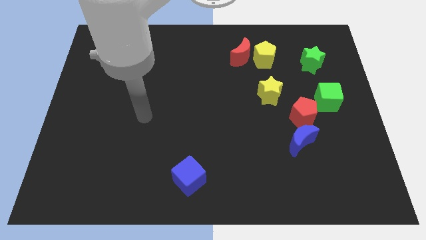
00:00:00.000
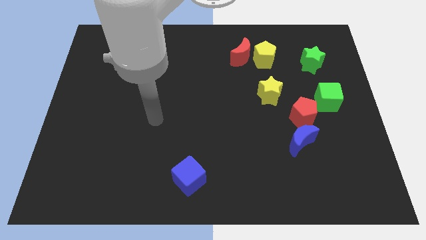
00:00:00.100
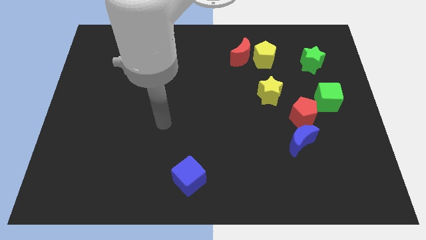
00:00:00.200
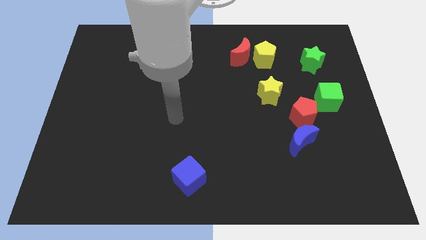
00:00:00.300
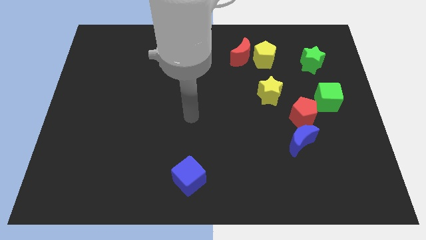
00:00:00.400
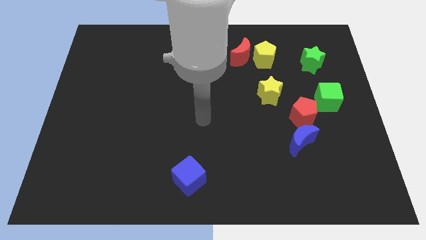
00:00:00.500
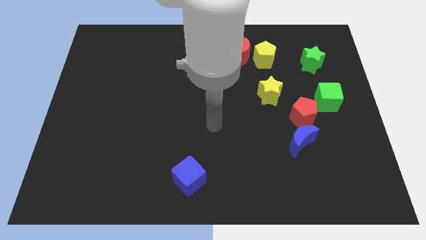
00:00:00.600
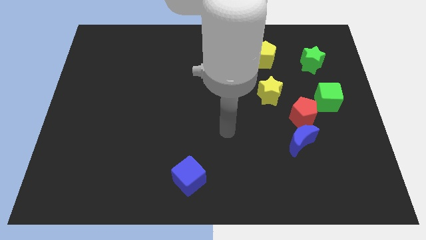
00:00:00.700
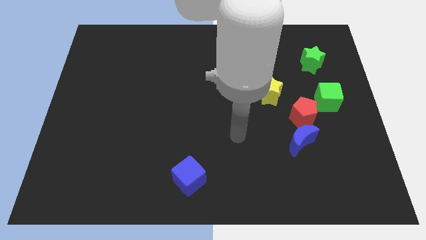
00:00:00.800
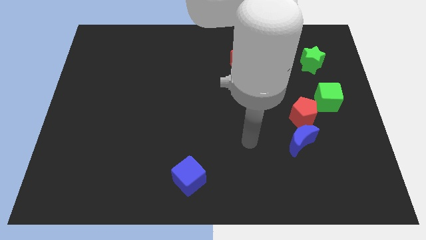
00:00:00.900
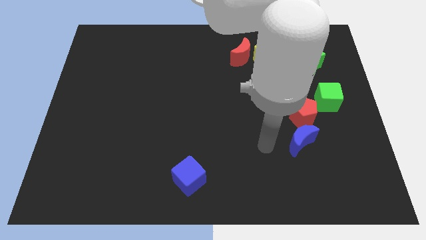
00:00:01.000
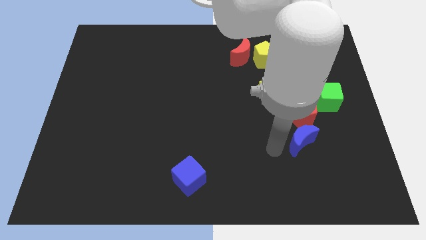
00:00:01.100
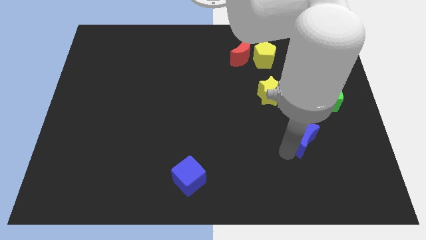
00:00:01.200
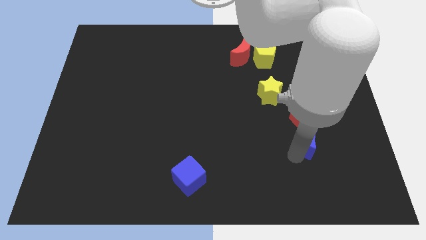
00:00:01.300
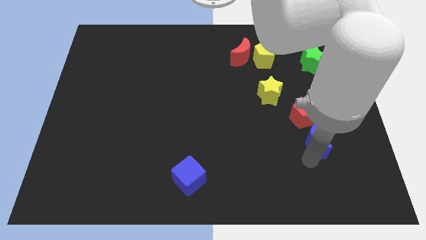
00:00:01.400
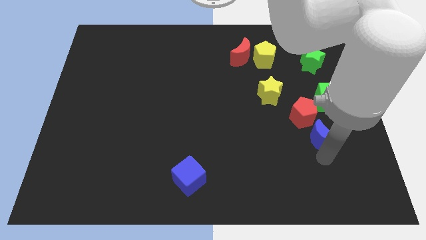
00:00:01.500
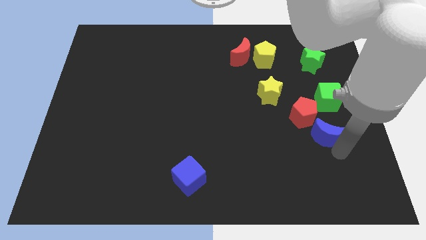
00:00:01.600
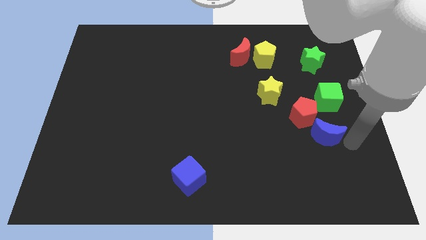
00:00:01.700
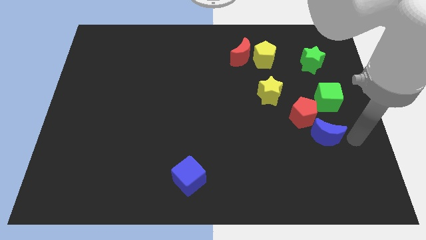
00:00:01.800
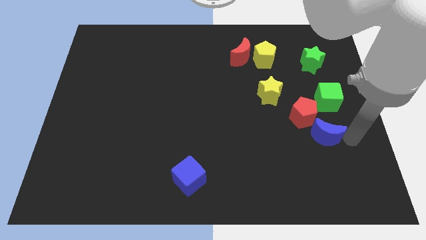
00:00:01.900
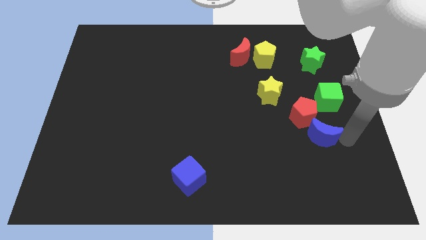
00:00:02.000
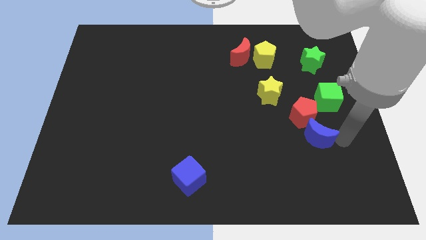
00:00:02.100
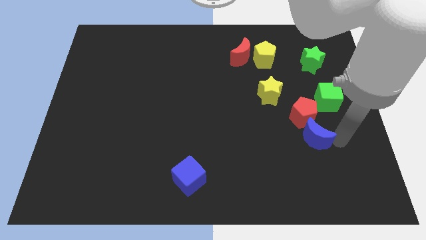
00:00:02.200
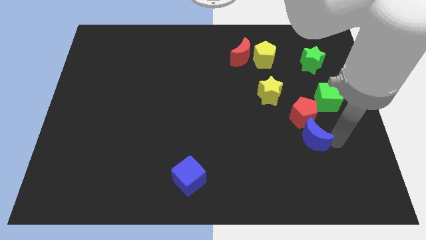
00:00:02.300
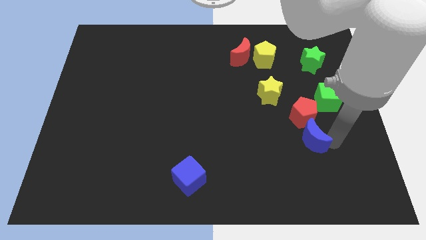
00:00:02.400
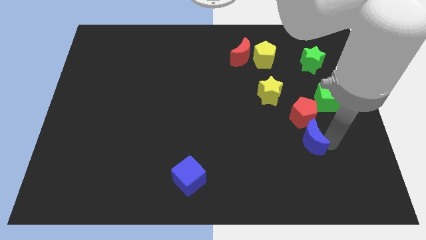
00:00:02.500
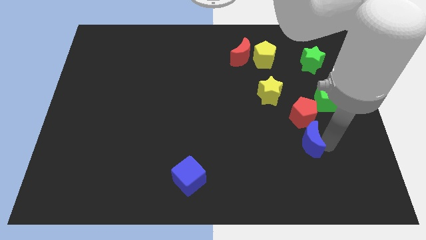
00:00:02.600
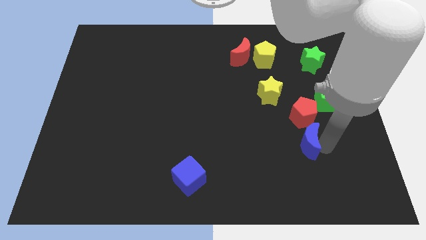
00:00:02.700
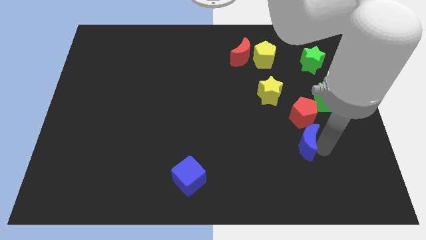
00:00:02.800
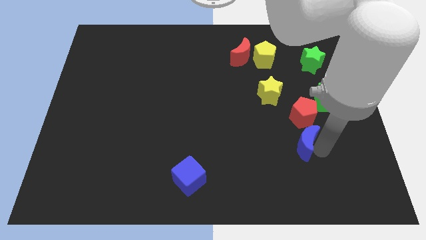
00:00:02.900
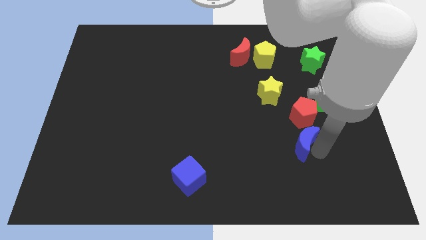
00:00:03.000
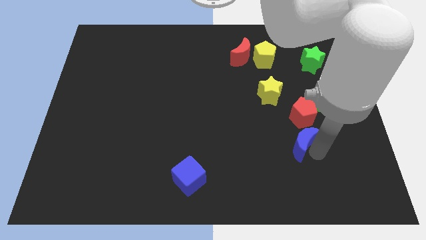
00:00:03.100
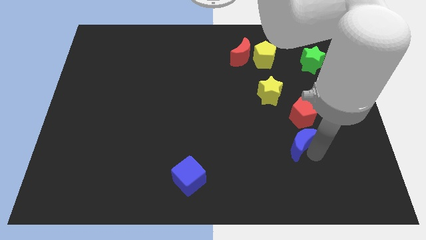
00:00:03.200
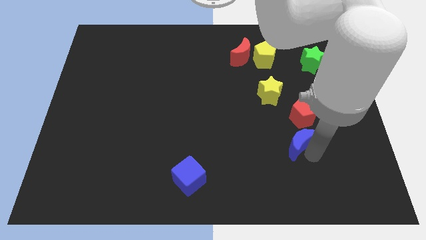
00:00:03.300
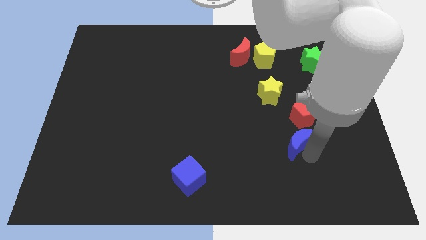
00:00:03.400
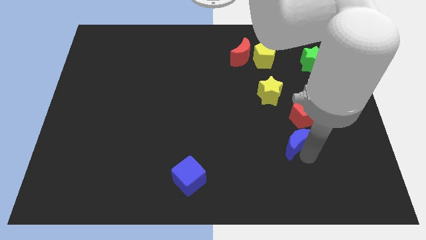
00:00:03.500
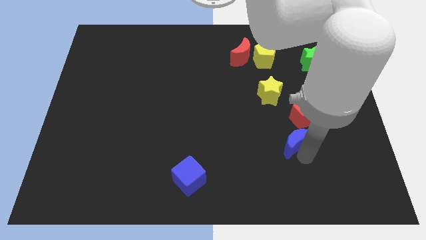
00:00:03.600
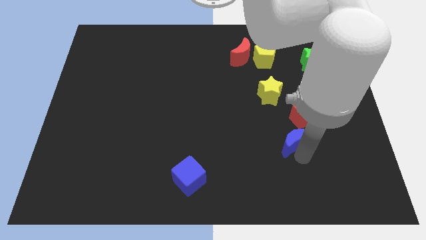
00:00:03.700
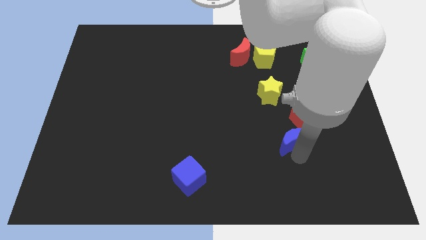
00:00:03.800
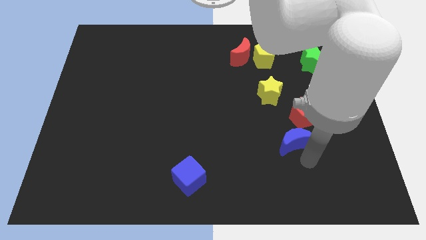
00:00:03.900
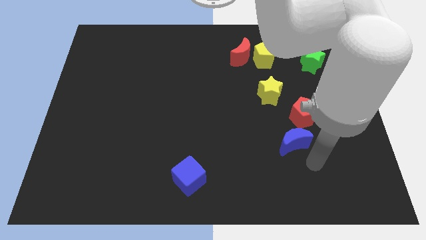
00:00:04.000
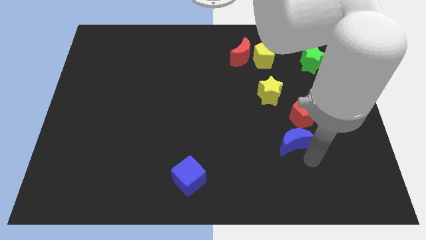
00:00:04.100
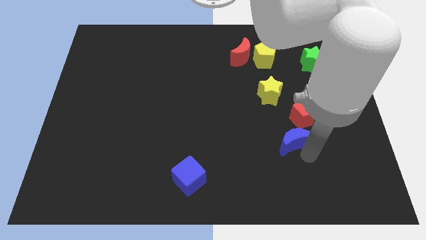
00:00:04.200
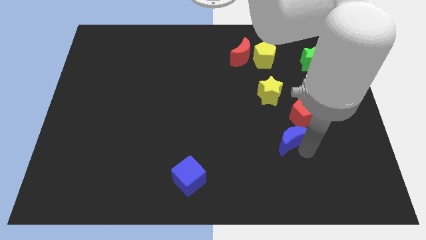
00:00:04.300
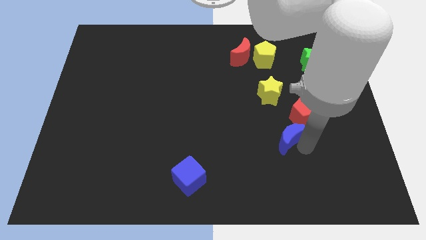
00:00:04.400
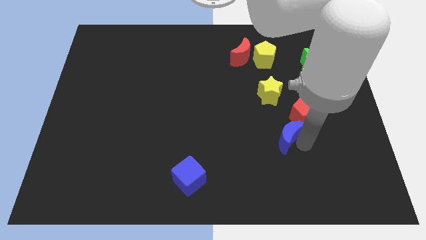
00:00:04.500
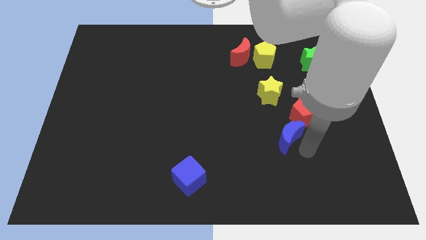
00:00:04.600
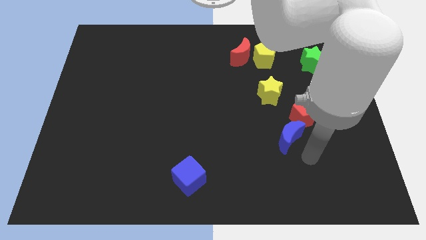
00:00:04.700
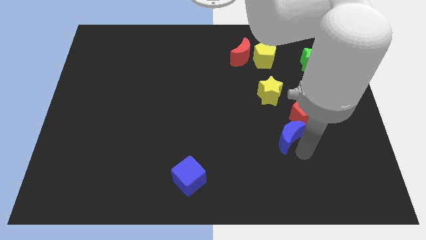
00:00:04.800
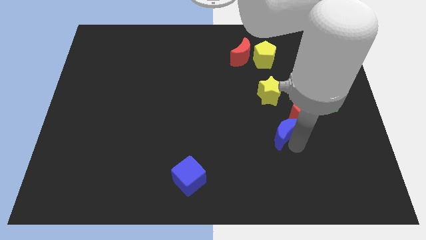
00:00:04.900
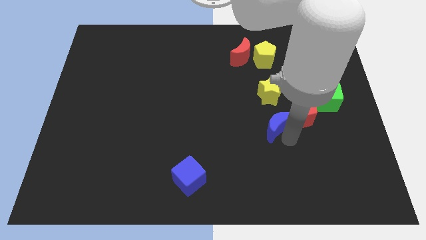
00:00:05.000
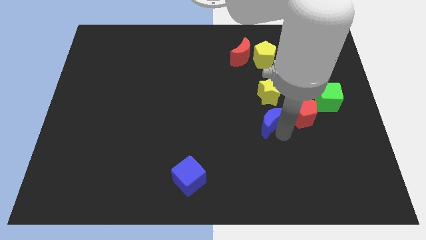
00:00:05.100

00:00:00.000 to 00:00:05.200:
slightly move the blue moon diagonally up and to the left

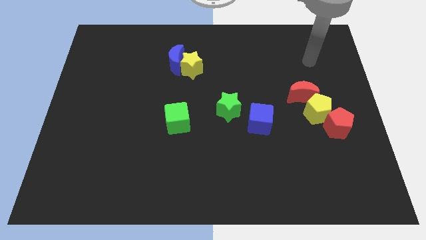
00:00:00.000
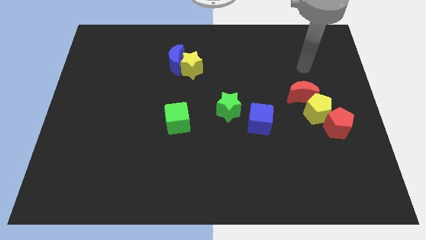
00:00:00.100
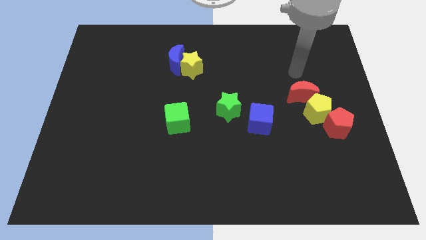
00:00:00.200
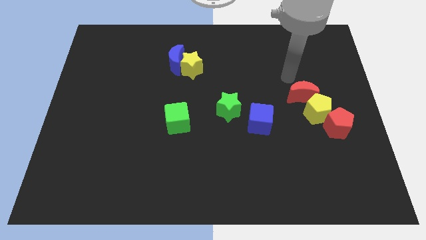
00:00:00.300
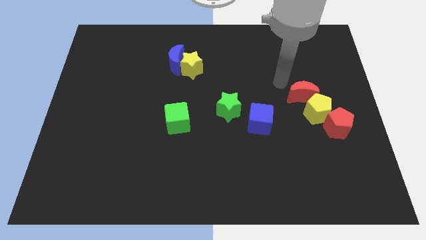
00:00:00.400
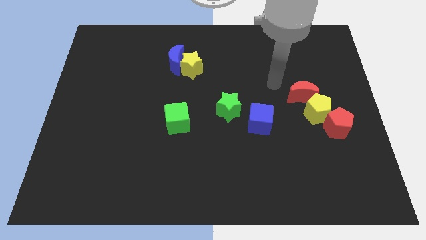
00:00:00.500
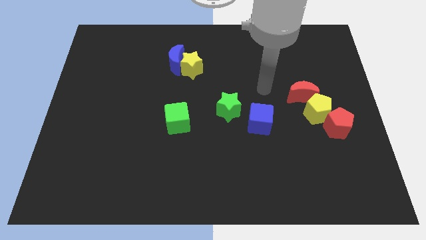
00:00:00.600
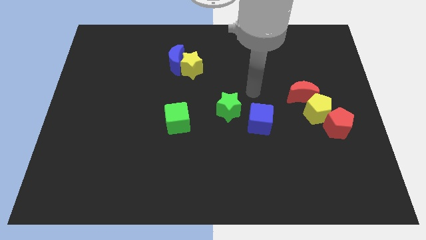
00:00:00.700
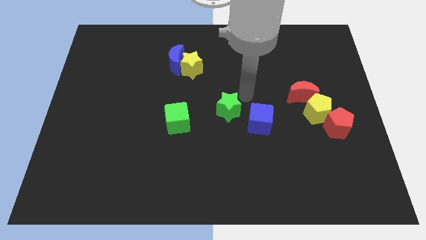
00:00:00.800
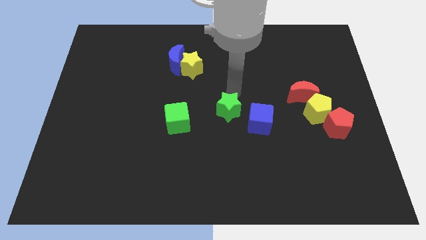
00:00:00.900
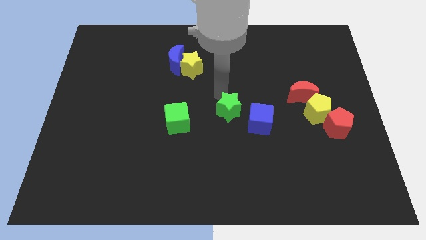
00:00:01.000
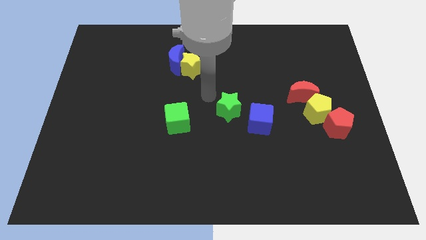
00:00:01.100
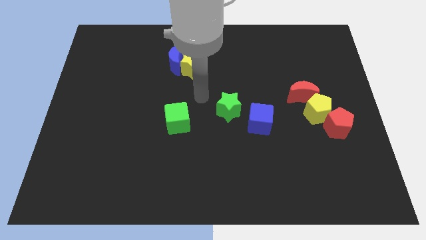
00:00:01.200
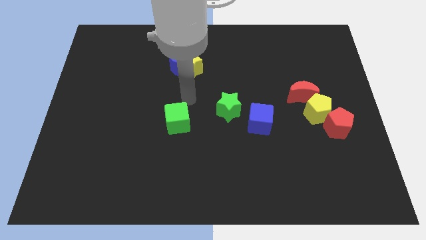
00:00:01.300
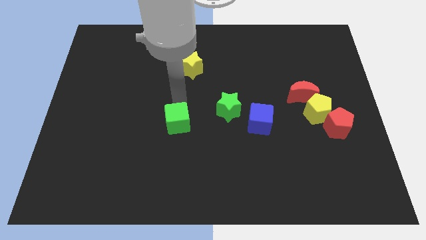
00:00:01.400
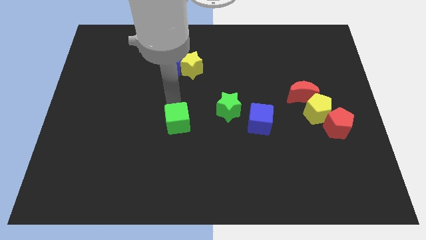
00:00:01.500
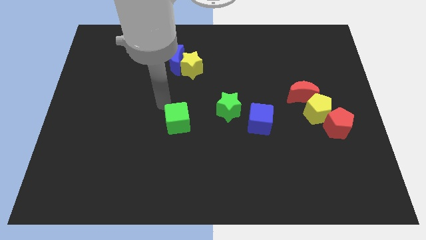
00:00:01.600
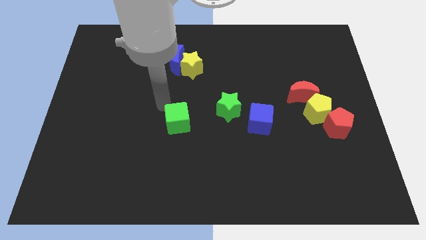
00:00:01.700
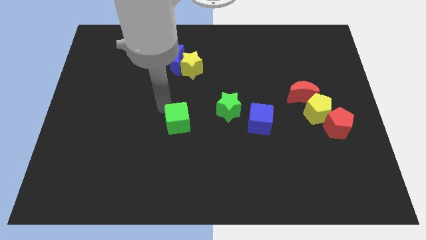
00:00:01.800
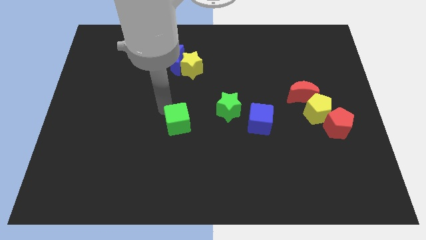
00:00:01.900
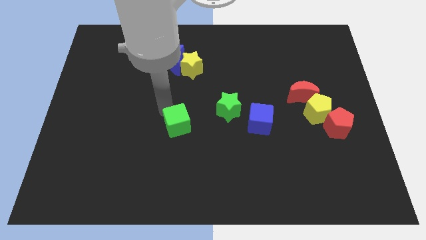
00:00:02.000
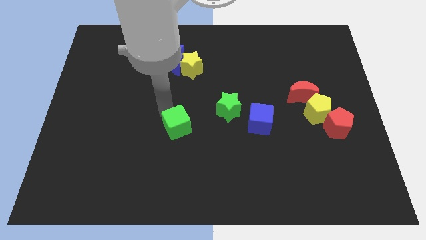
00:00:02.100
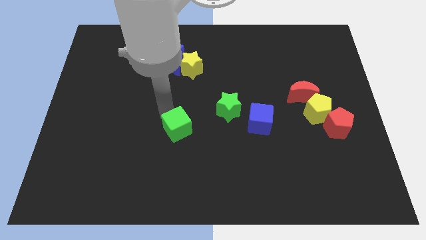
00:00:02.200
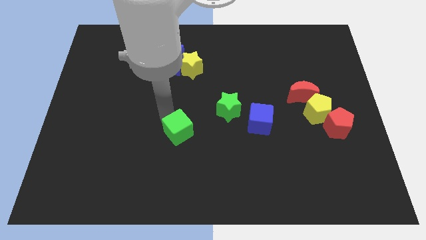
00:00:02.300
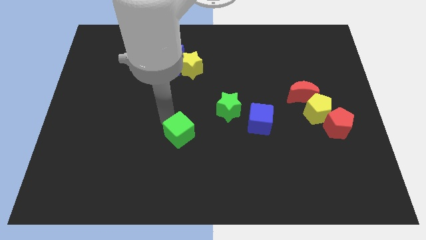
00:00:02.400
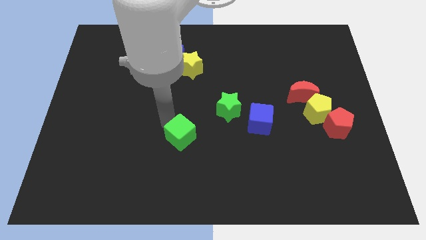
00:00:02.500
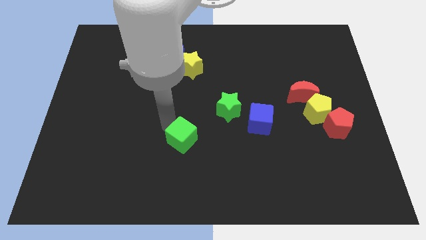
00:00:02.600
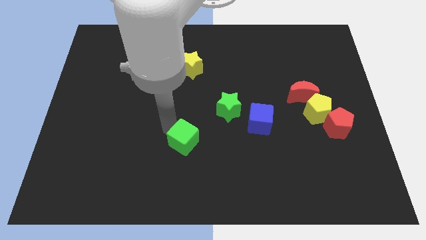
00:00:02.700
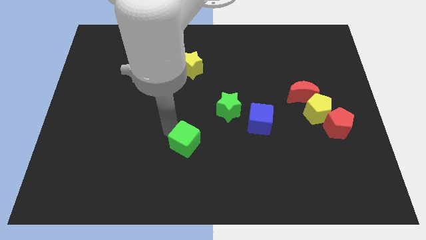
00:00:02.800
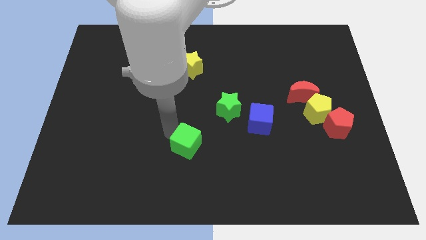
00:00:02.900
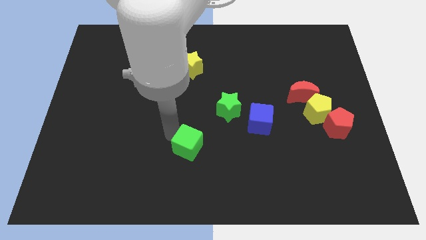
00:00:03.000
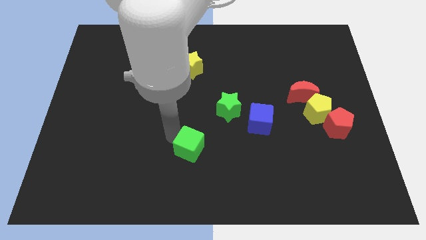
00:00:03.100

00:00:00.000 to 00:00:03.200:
push the green cube a bit downwards and to the right diagonally

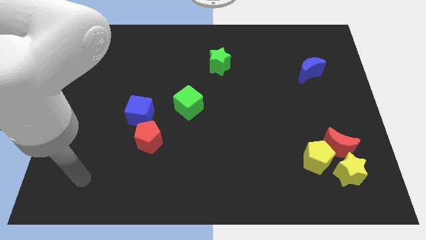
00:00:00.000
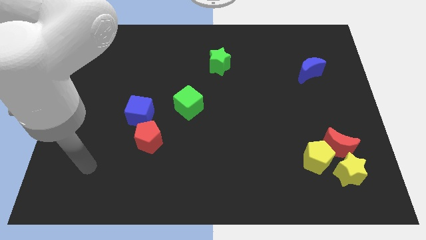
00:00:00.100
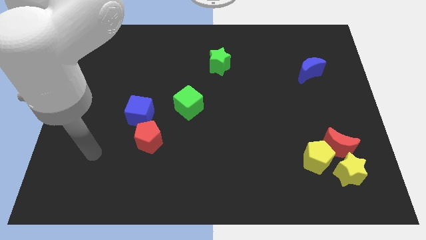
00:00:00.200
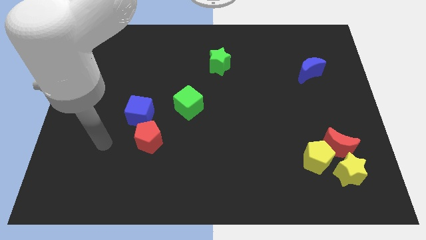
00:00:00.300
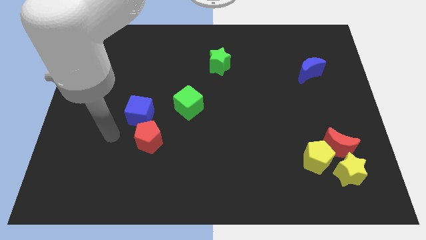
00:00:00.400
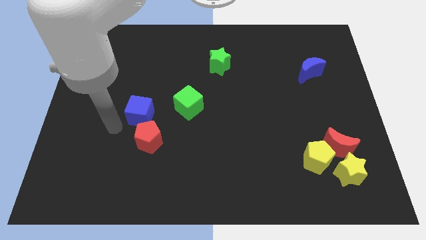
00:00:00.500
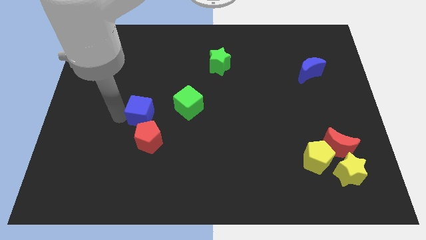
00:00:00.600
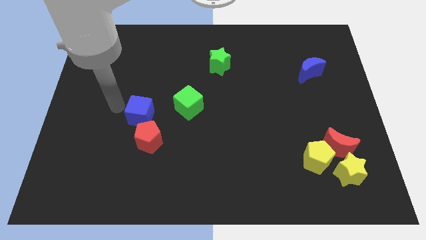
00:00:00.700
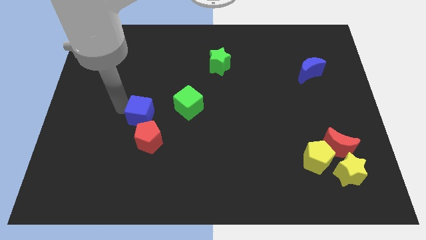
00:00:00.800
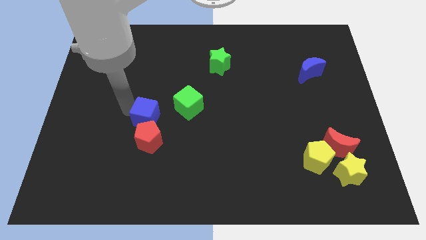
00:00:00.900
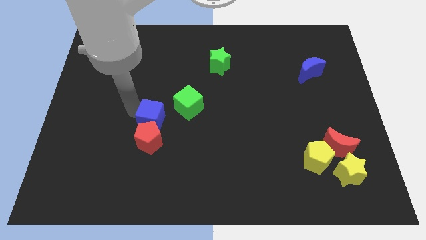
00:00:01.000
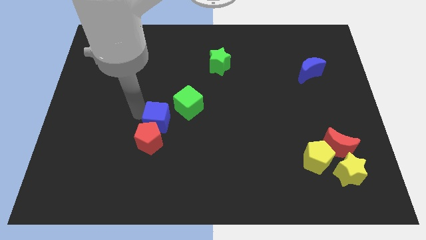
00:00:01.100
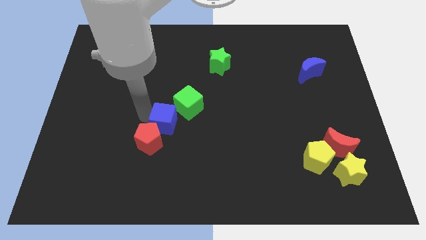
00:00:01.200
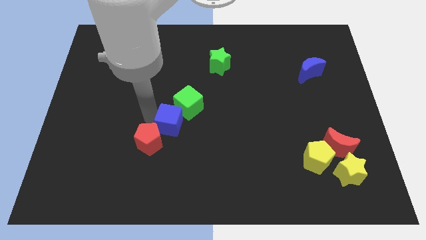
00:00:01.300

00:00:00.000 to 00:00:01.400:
slide the blue cube right a bit
